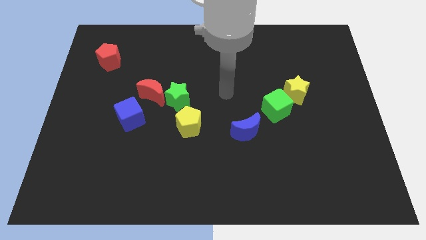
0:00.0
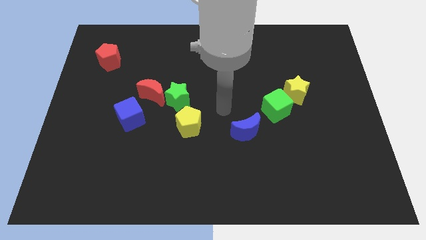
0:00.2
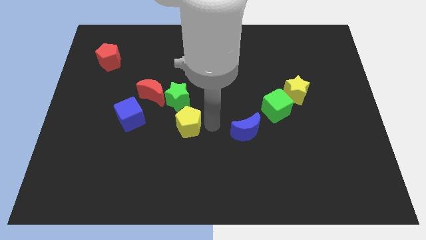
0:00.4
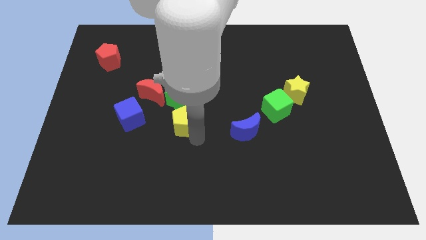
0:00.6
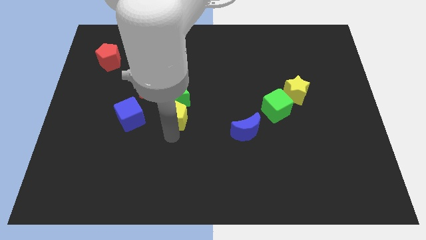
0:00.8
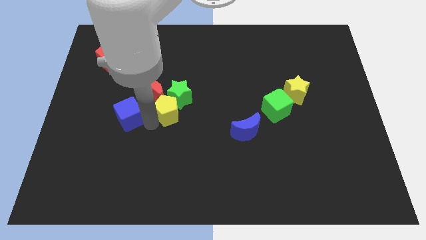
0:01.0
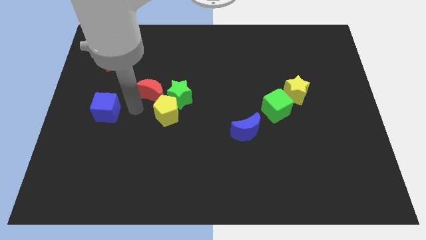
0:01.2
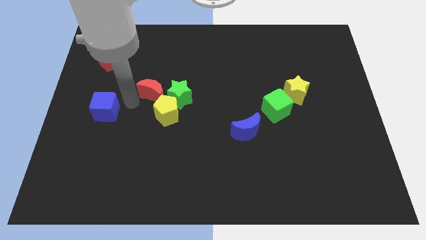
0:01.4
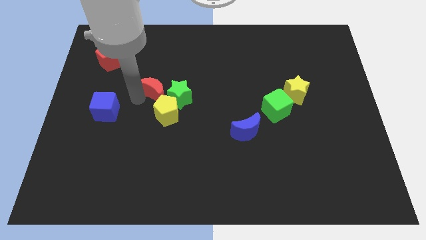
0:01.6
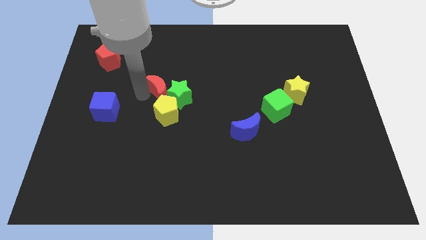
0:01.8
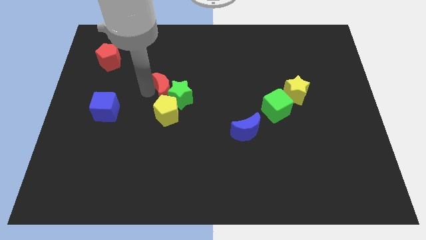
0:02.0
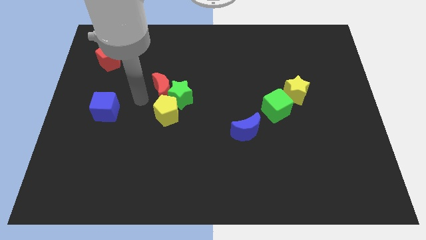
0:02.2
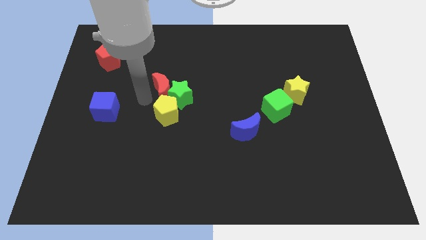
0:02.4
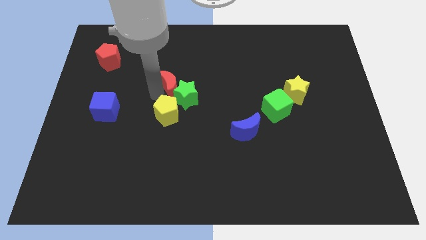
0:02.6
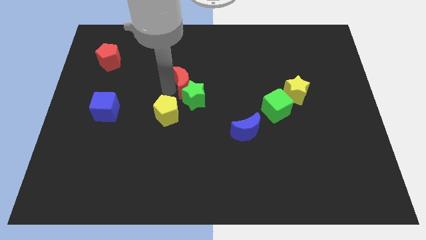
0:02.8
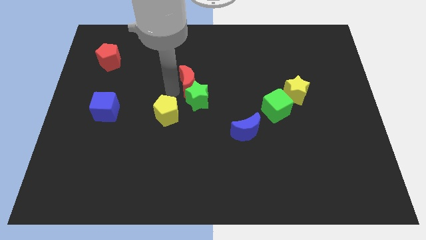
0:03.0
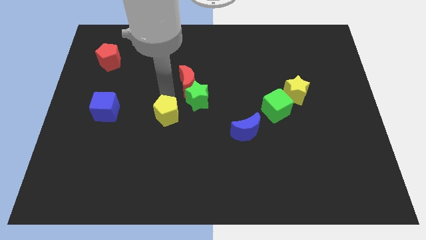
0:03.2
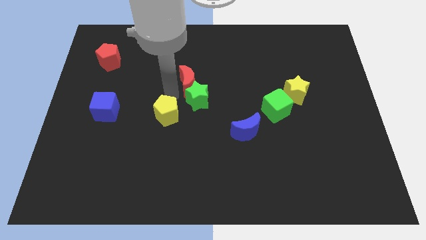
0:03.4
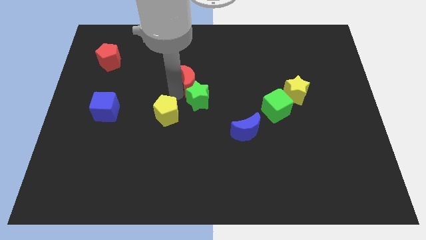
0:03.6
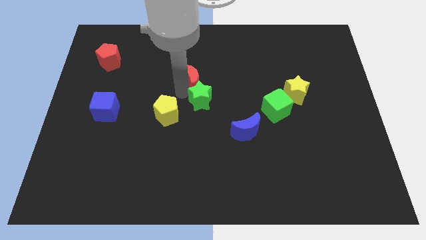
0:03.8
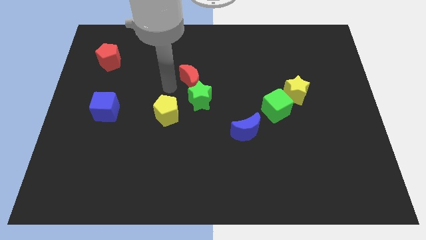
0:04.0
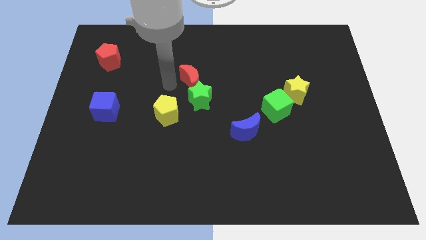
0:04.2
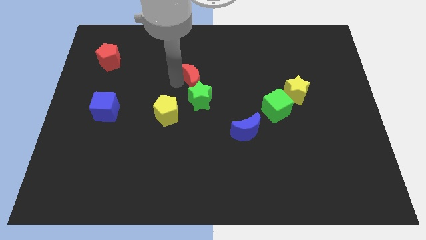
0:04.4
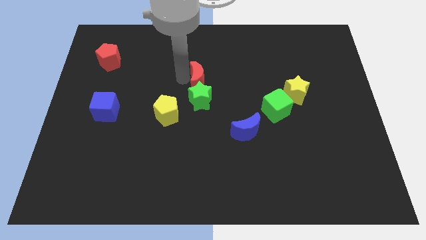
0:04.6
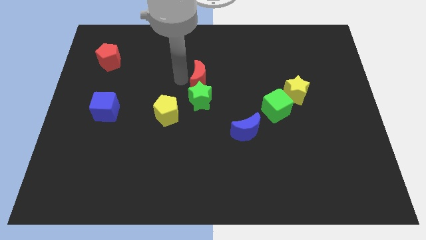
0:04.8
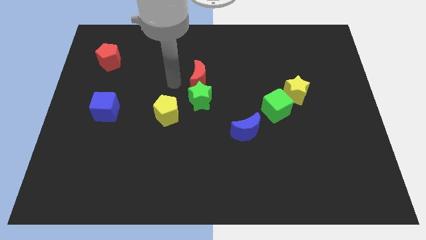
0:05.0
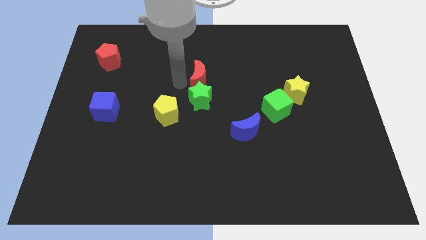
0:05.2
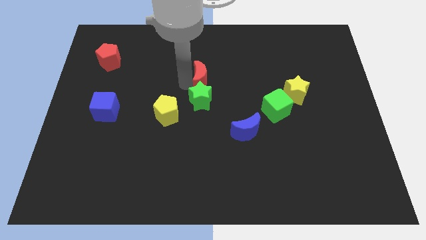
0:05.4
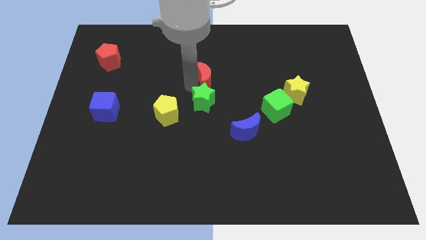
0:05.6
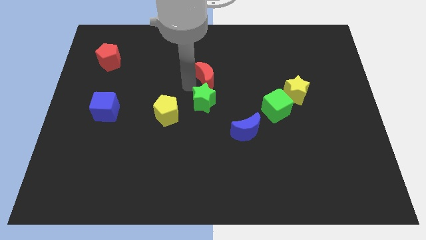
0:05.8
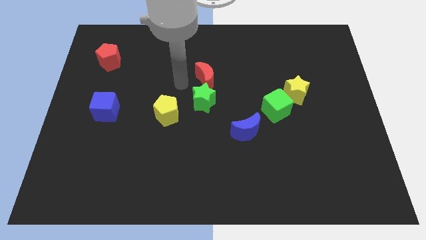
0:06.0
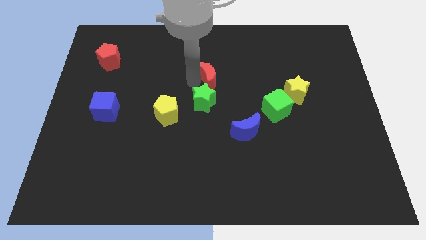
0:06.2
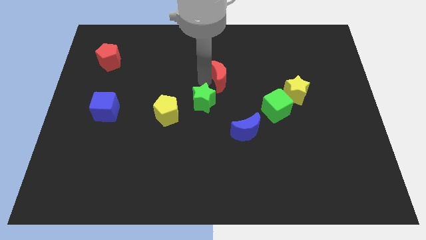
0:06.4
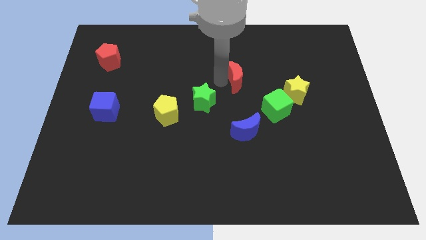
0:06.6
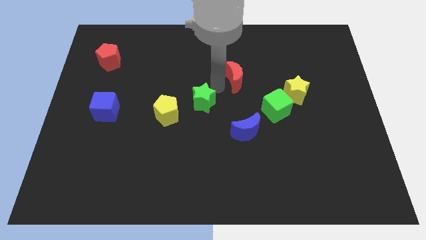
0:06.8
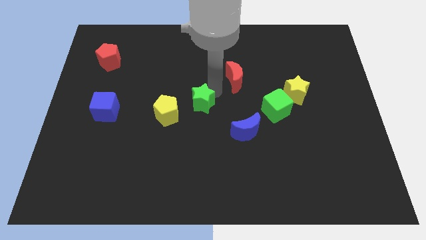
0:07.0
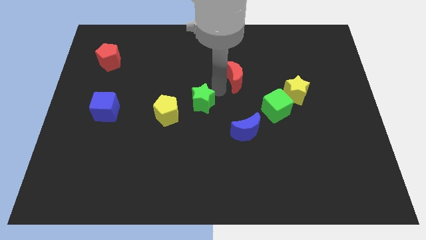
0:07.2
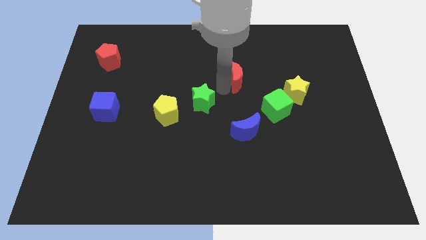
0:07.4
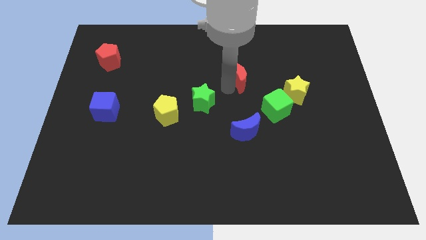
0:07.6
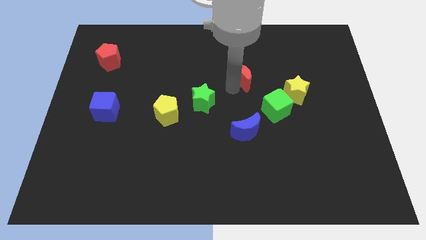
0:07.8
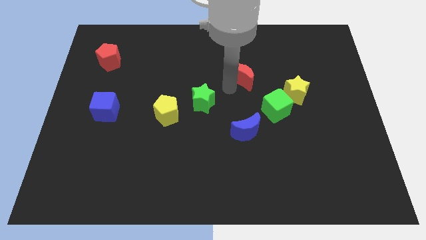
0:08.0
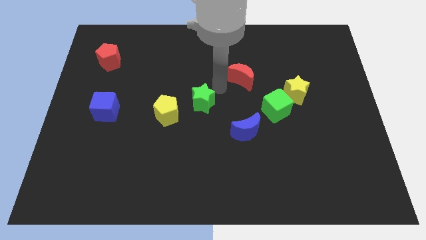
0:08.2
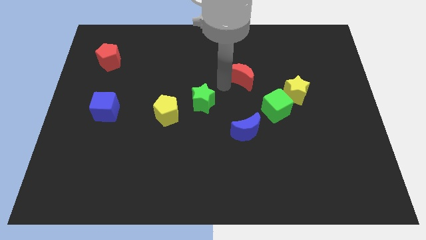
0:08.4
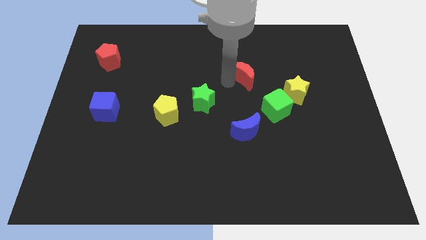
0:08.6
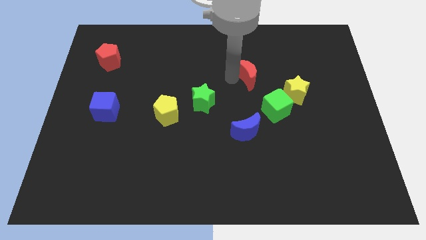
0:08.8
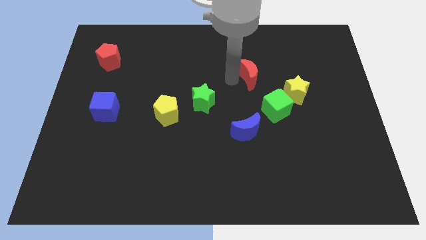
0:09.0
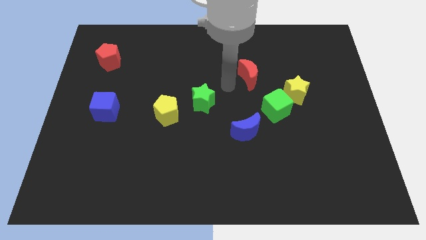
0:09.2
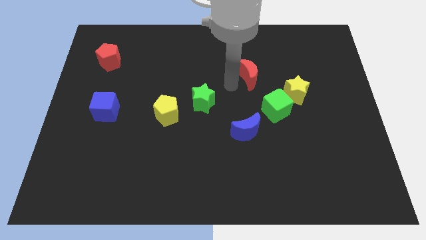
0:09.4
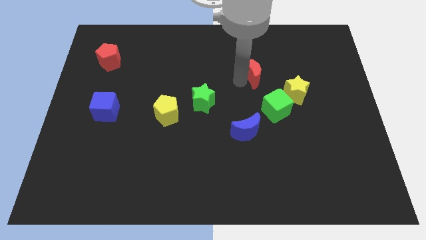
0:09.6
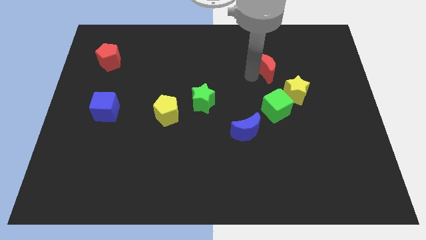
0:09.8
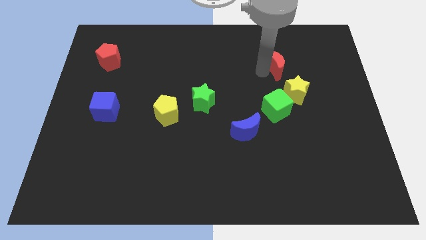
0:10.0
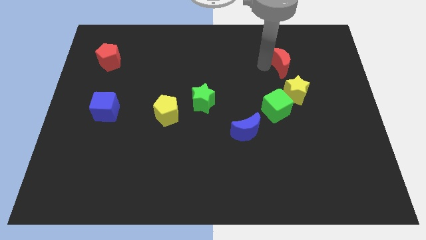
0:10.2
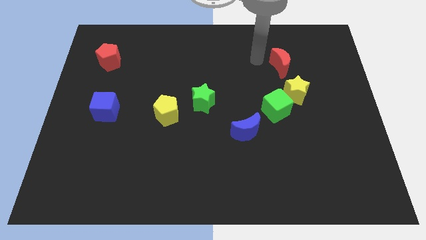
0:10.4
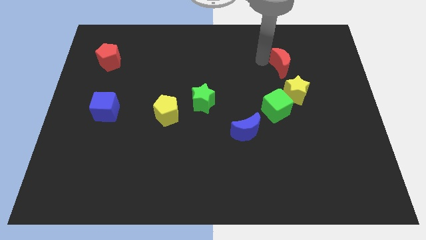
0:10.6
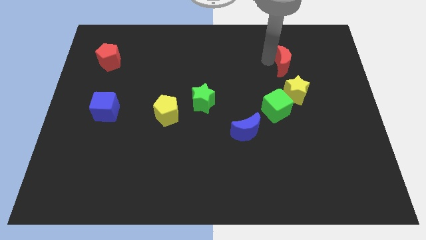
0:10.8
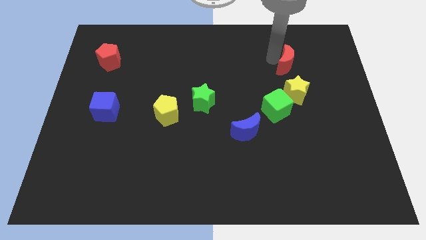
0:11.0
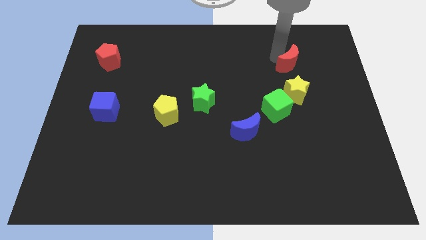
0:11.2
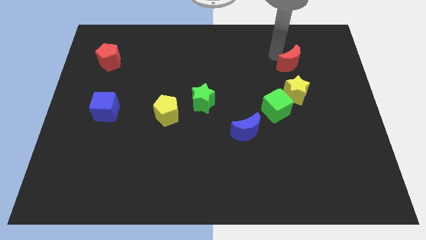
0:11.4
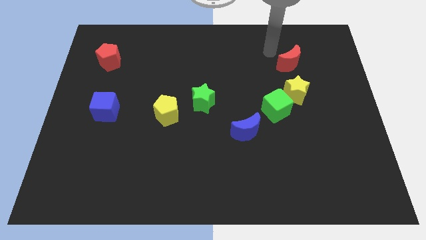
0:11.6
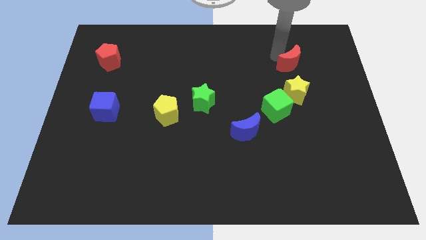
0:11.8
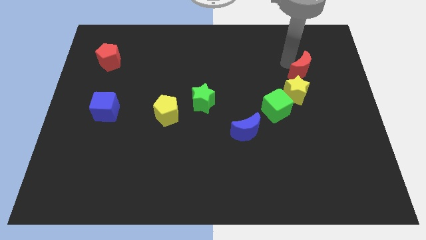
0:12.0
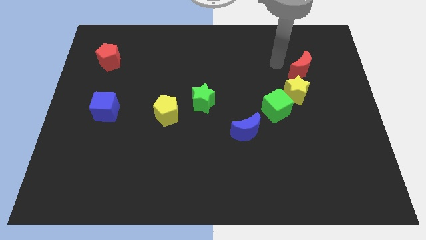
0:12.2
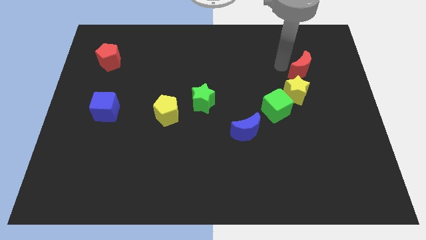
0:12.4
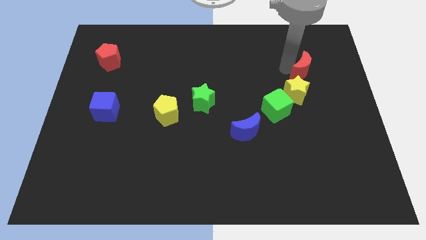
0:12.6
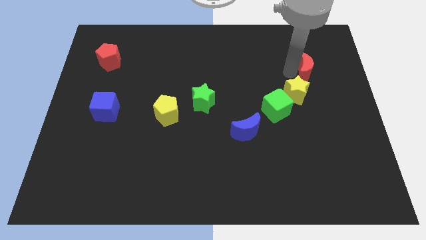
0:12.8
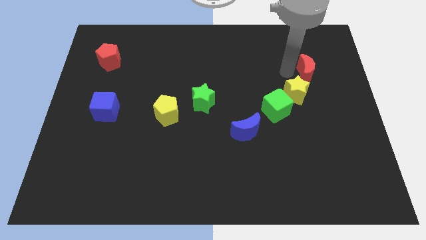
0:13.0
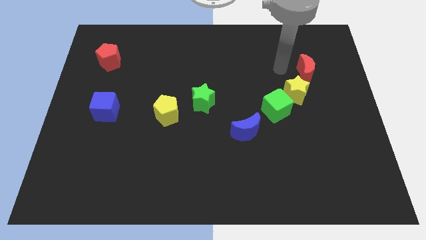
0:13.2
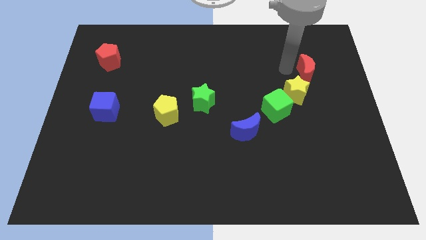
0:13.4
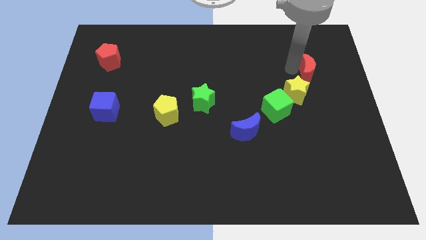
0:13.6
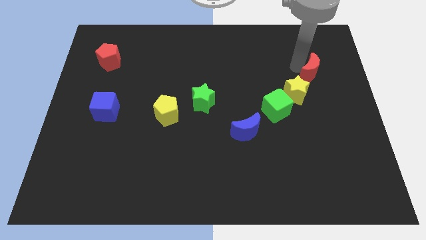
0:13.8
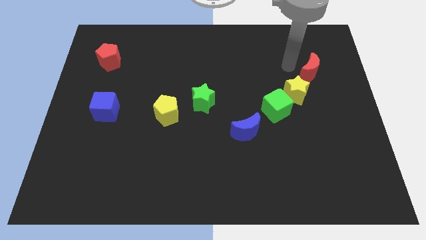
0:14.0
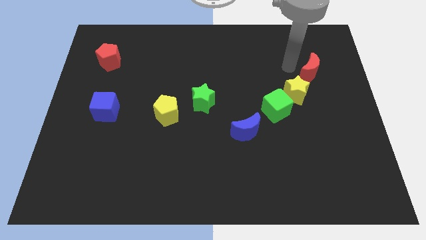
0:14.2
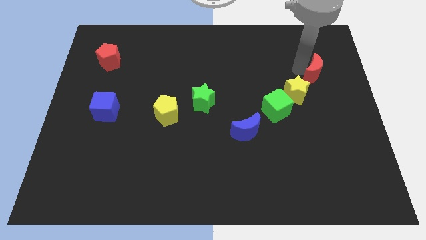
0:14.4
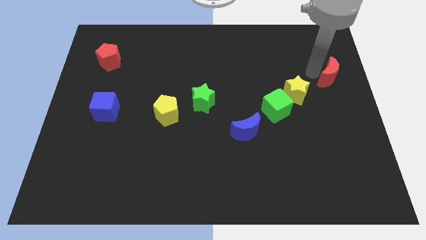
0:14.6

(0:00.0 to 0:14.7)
move the red moon to the center right
